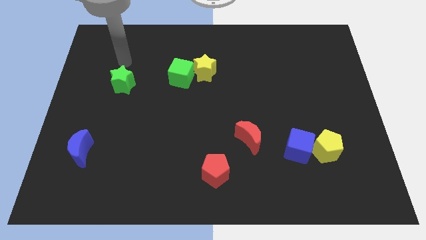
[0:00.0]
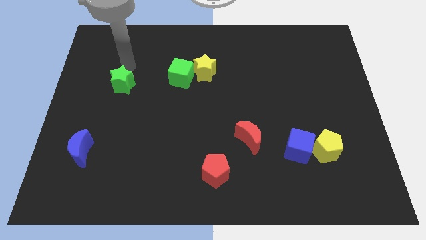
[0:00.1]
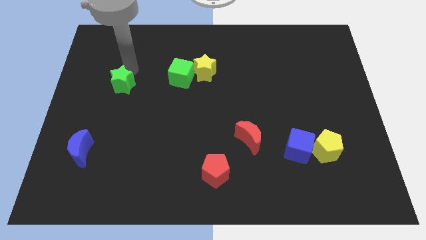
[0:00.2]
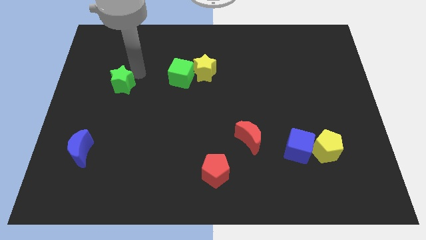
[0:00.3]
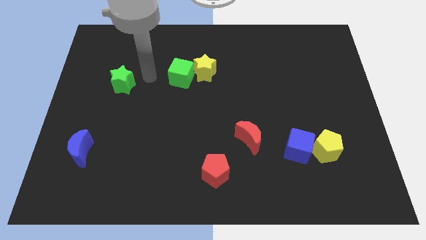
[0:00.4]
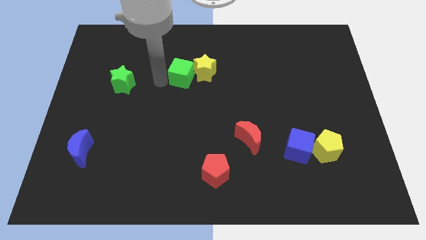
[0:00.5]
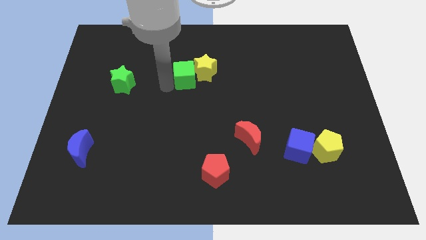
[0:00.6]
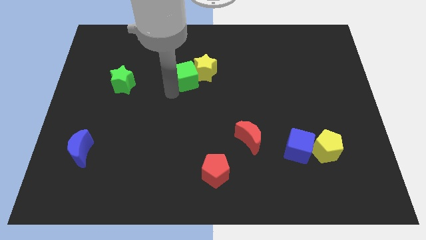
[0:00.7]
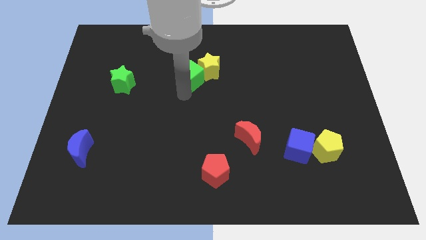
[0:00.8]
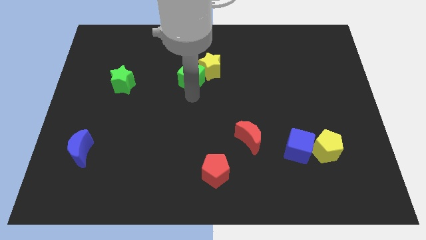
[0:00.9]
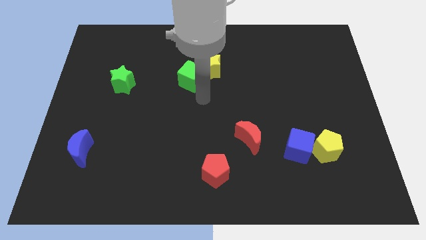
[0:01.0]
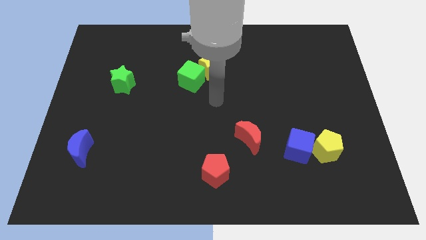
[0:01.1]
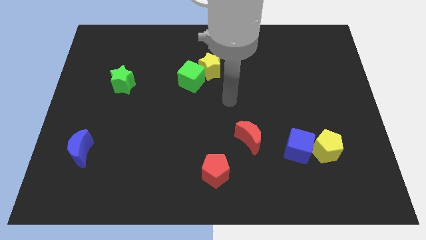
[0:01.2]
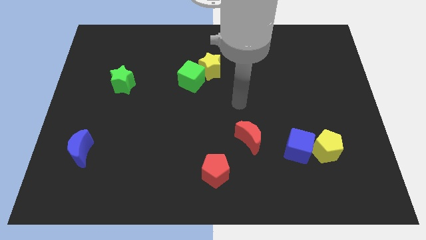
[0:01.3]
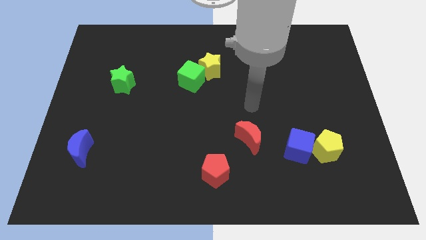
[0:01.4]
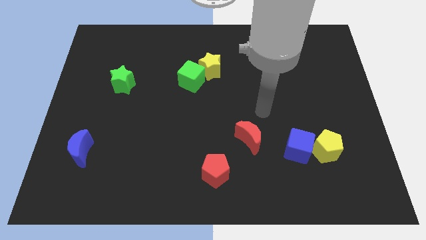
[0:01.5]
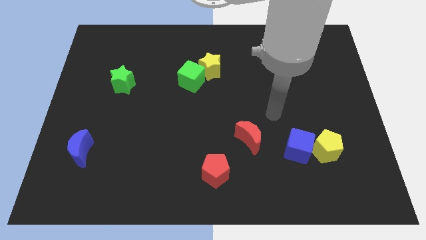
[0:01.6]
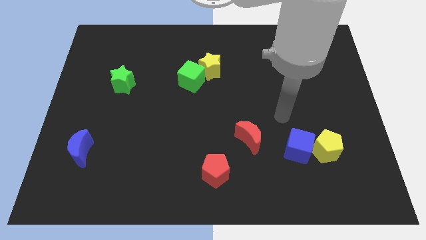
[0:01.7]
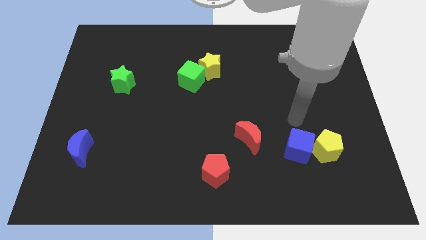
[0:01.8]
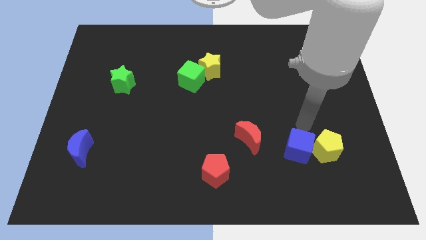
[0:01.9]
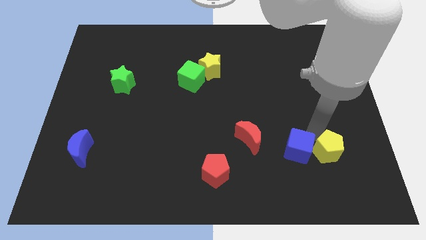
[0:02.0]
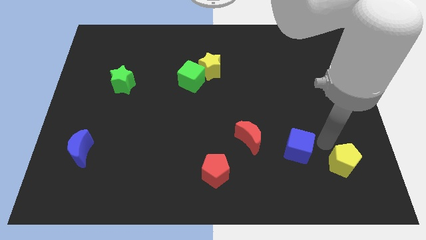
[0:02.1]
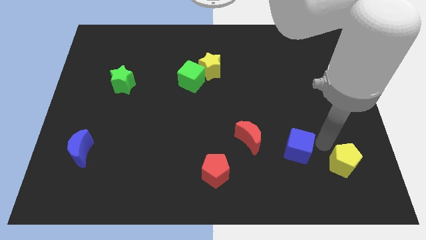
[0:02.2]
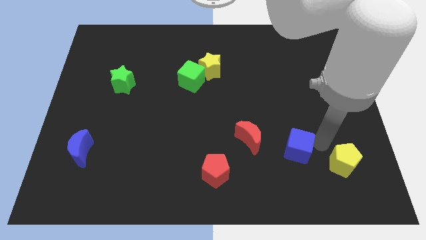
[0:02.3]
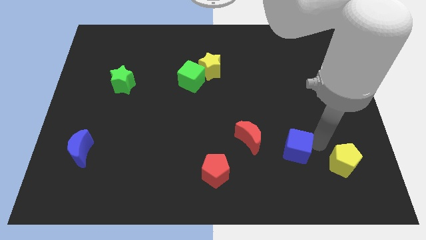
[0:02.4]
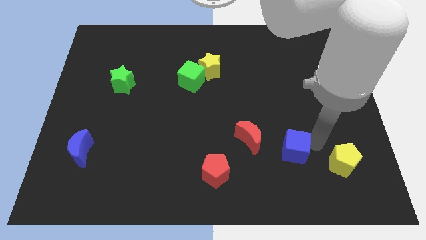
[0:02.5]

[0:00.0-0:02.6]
pull the blue cube apart from the yellow pentagon

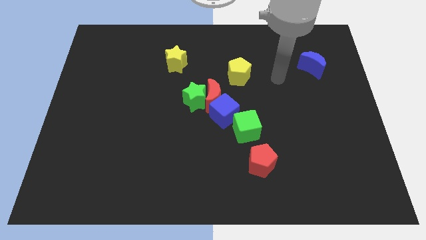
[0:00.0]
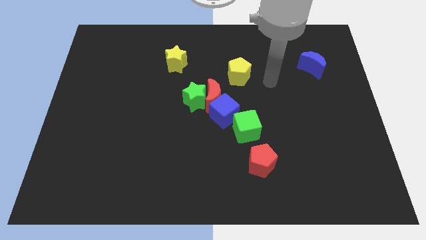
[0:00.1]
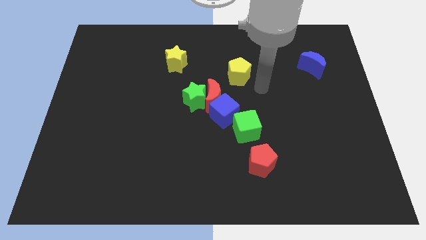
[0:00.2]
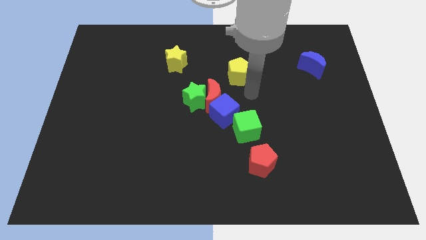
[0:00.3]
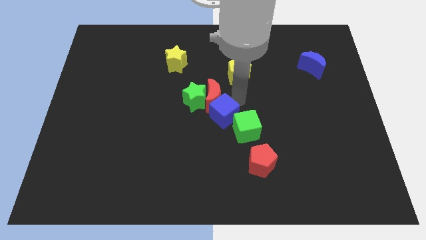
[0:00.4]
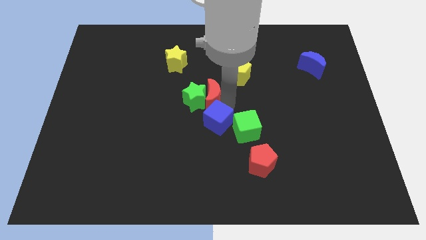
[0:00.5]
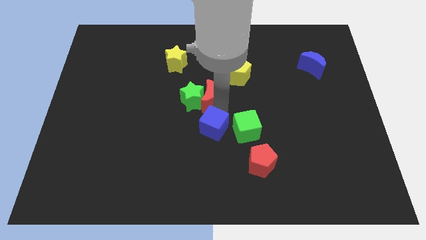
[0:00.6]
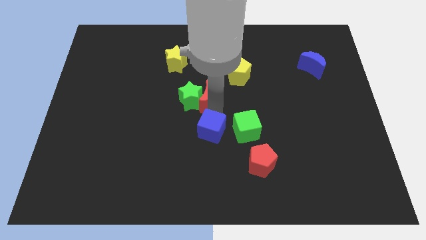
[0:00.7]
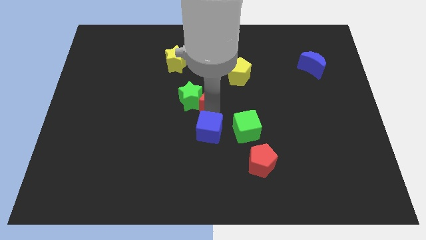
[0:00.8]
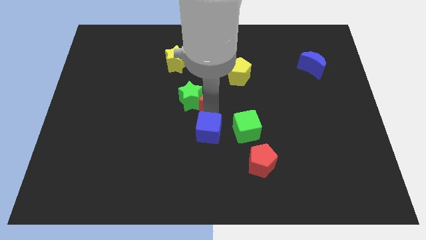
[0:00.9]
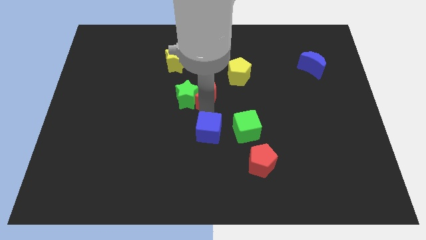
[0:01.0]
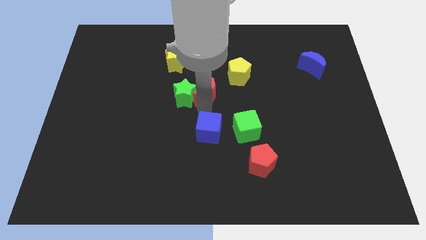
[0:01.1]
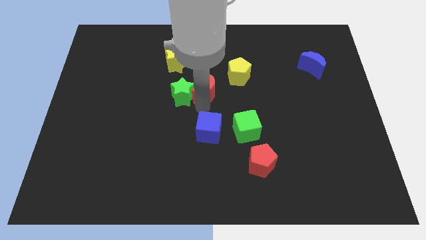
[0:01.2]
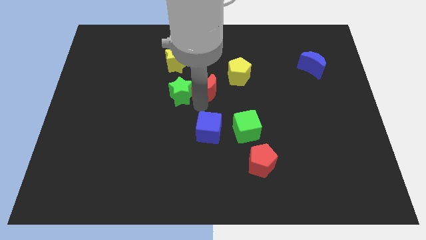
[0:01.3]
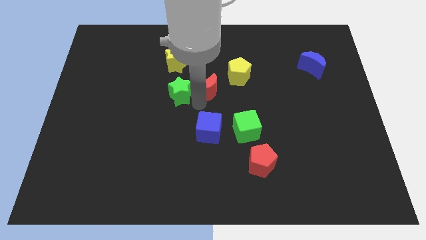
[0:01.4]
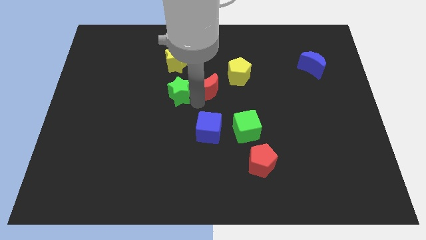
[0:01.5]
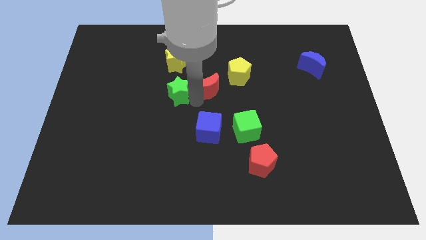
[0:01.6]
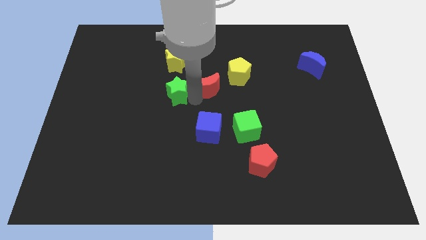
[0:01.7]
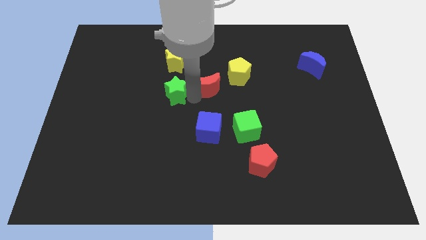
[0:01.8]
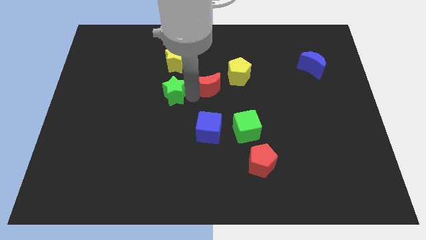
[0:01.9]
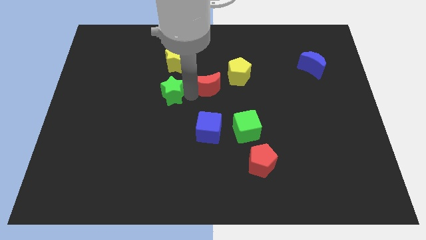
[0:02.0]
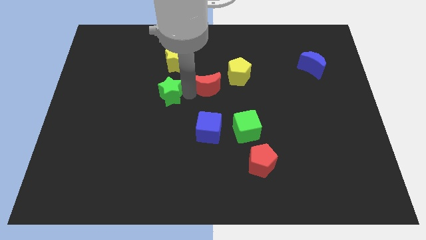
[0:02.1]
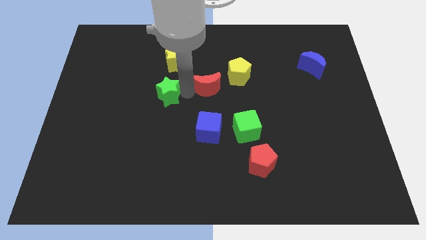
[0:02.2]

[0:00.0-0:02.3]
separate the green star from the red moon and blue cube

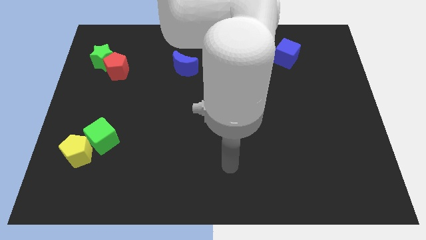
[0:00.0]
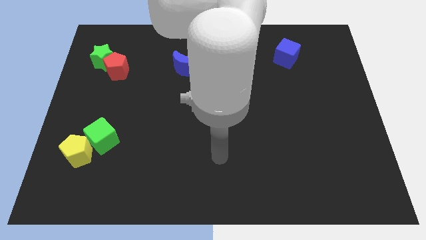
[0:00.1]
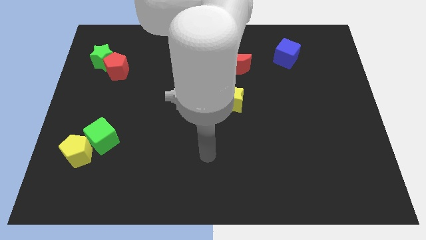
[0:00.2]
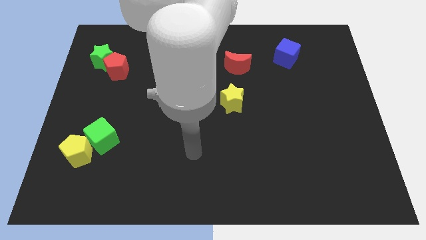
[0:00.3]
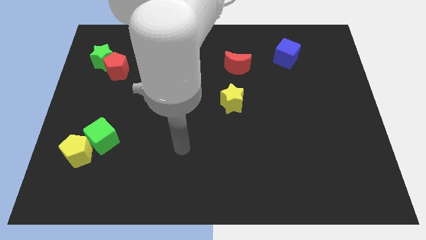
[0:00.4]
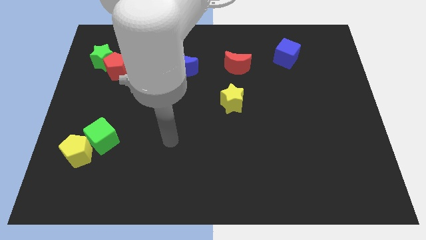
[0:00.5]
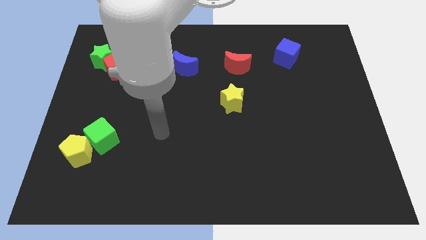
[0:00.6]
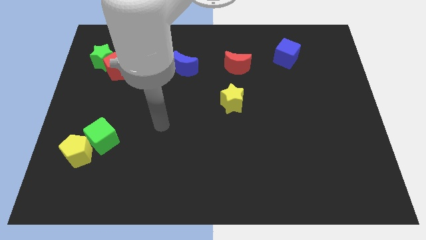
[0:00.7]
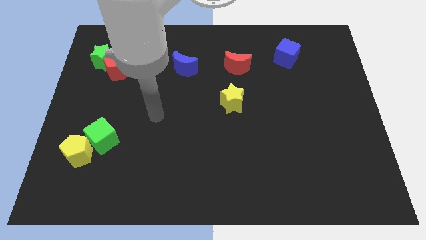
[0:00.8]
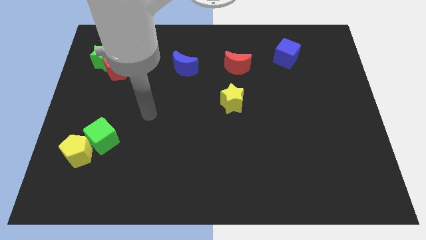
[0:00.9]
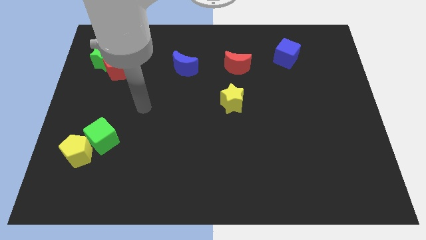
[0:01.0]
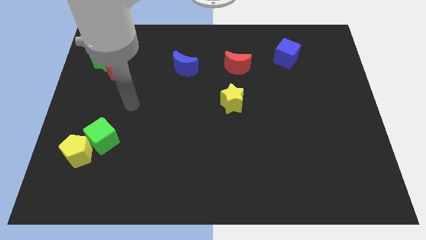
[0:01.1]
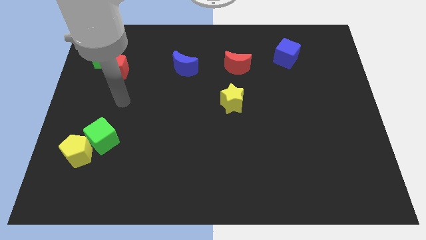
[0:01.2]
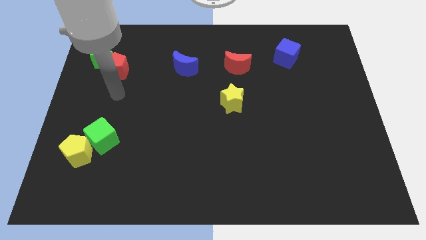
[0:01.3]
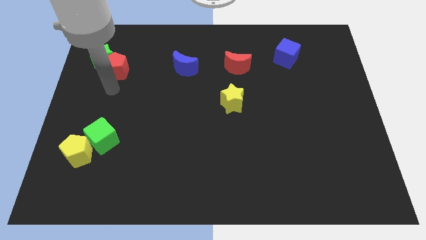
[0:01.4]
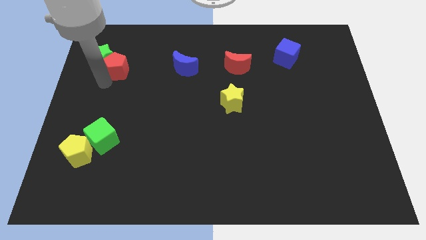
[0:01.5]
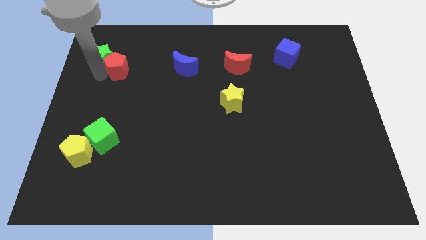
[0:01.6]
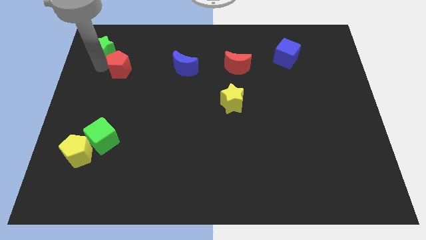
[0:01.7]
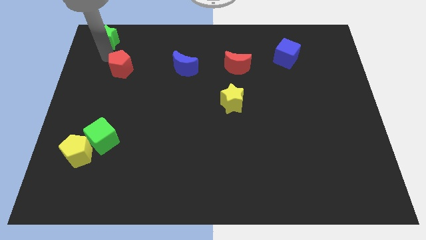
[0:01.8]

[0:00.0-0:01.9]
pull the red pentagon apart from the green star

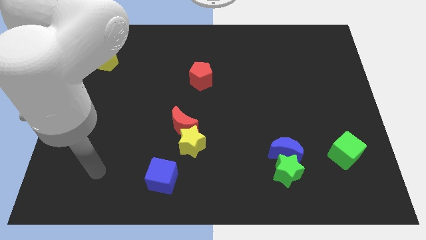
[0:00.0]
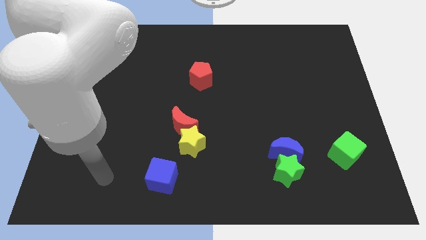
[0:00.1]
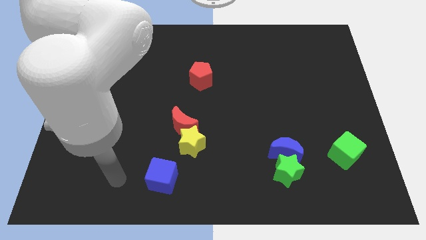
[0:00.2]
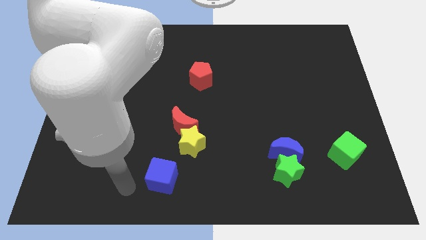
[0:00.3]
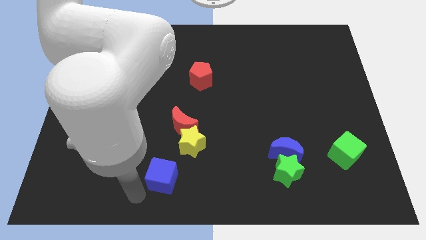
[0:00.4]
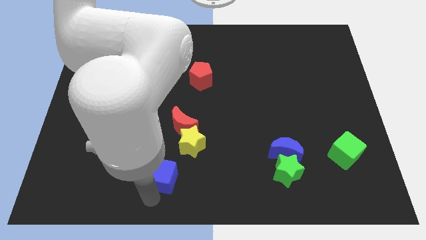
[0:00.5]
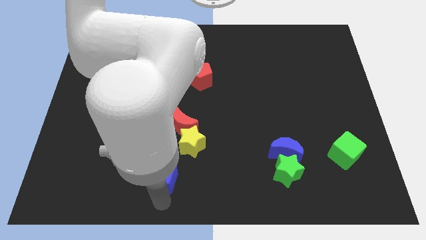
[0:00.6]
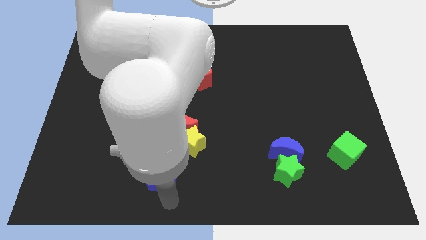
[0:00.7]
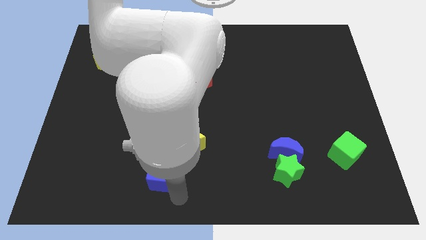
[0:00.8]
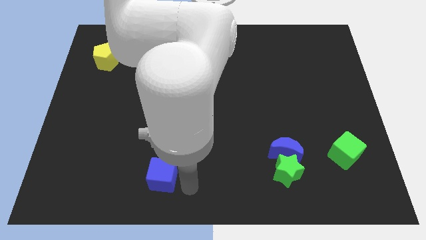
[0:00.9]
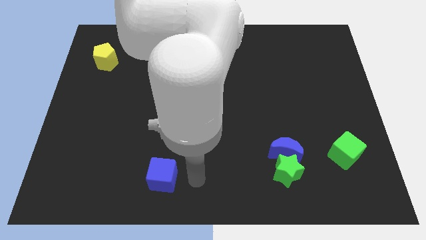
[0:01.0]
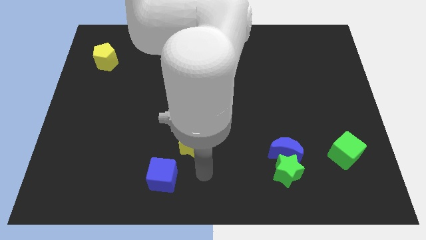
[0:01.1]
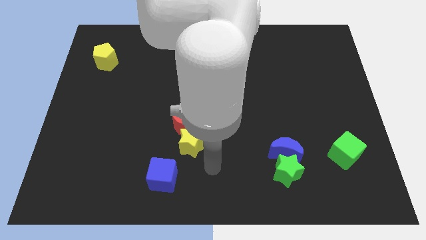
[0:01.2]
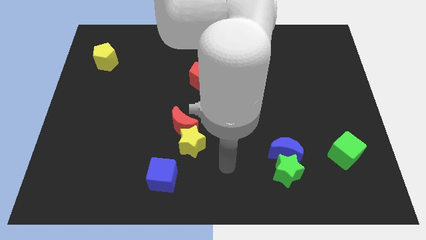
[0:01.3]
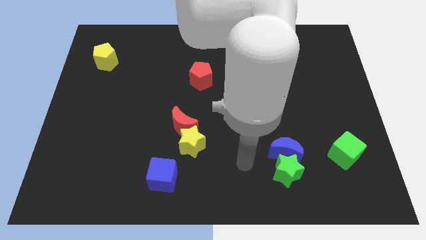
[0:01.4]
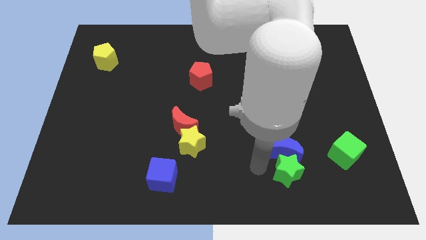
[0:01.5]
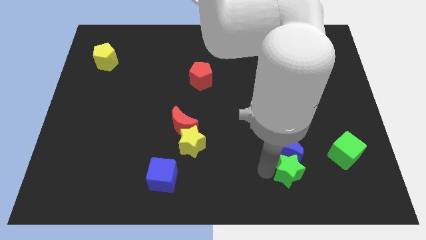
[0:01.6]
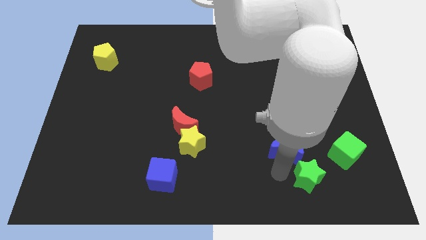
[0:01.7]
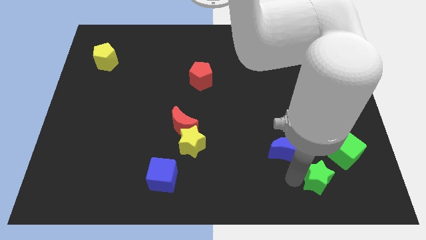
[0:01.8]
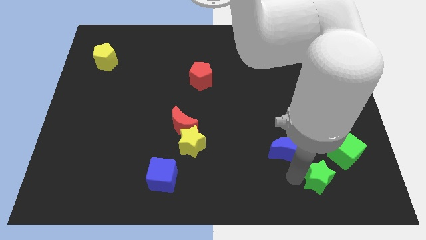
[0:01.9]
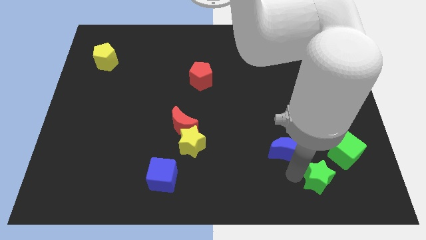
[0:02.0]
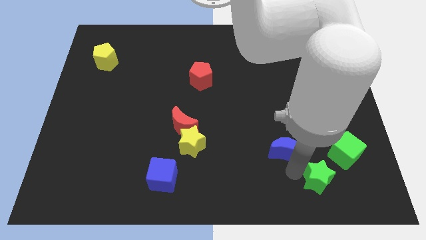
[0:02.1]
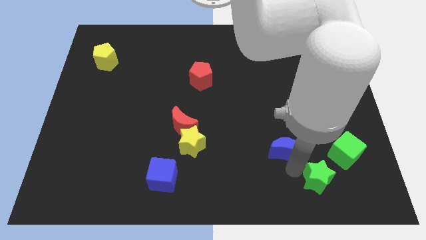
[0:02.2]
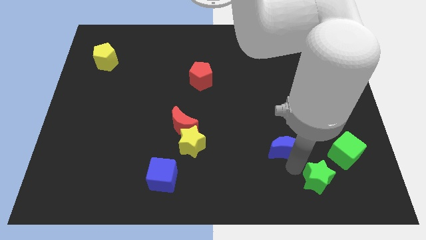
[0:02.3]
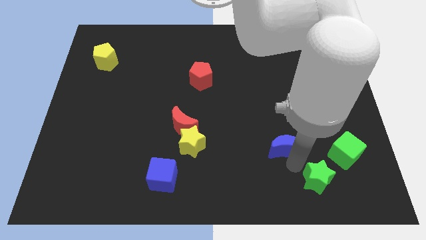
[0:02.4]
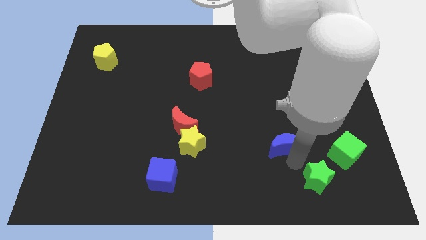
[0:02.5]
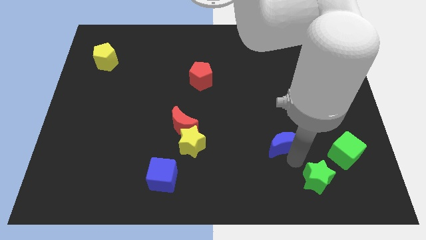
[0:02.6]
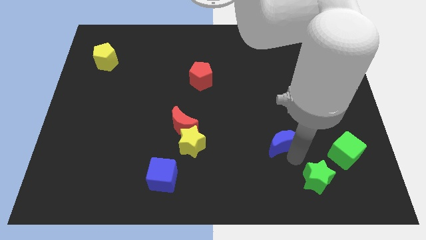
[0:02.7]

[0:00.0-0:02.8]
pull the blue moon apart from the green star
